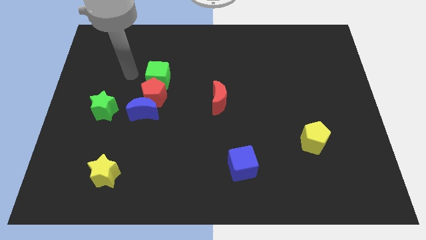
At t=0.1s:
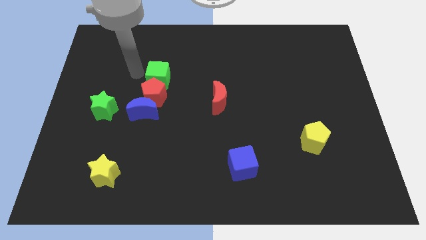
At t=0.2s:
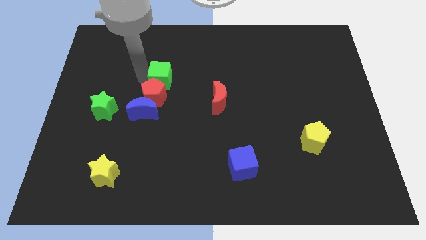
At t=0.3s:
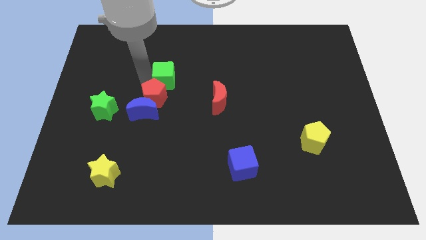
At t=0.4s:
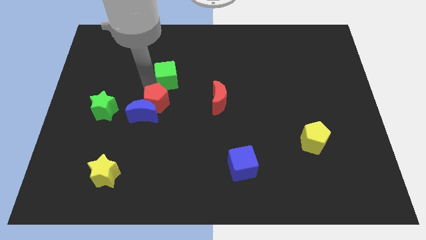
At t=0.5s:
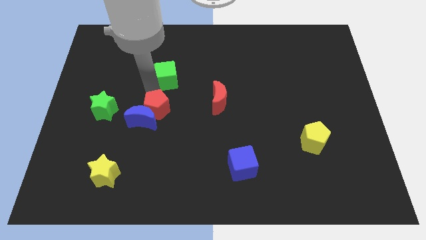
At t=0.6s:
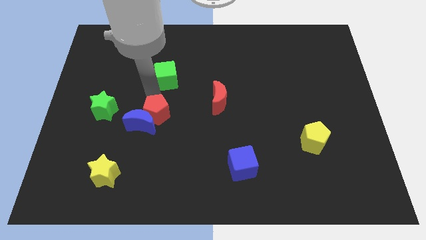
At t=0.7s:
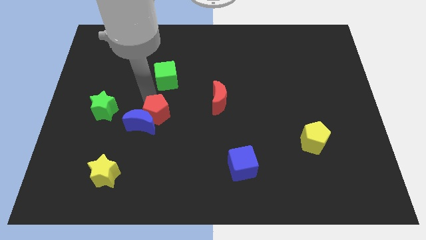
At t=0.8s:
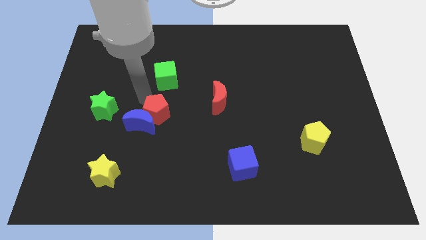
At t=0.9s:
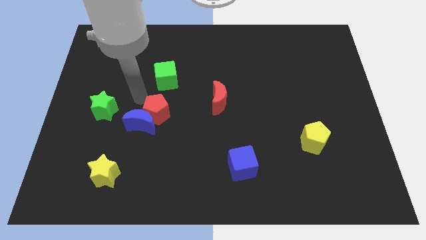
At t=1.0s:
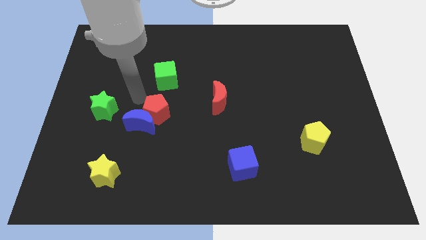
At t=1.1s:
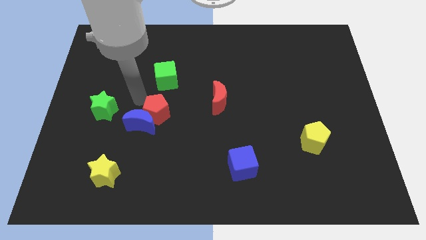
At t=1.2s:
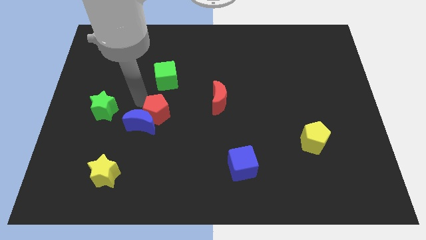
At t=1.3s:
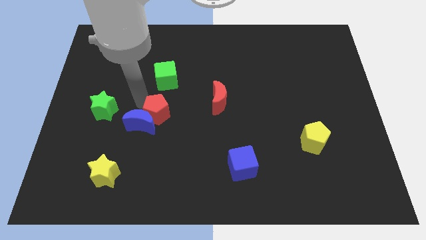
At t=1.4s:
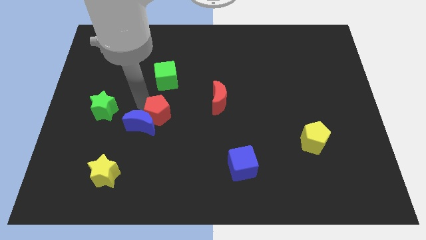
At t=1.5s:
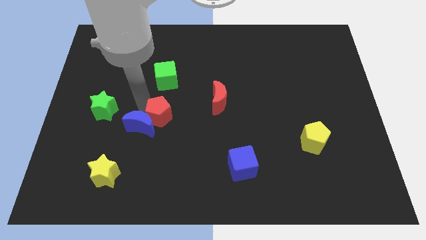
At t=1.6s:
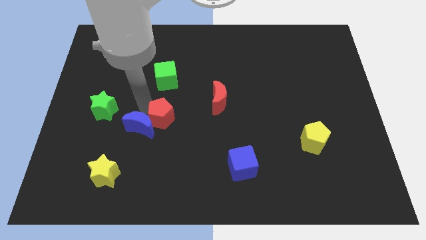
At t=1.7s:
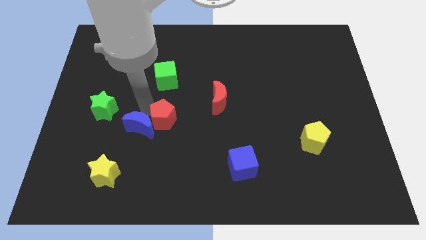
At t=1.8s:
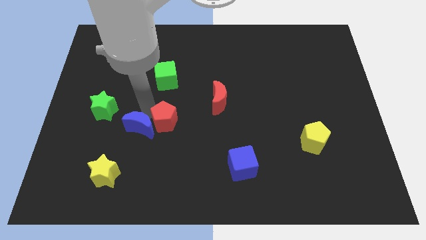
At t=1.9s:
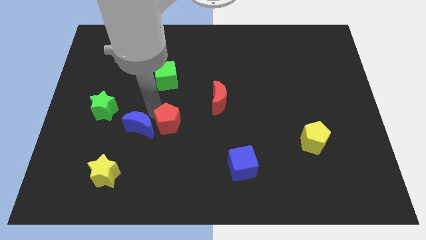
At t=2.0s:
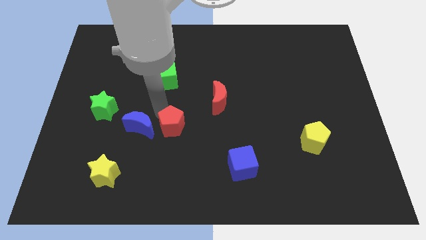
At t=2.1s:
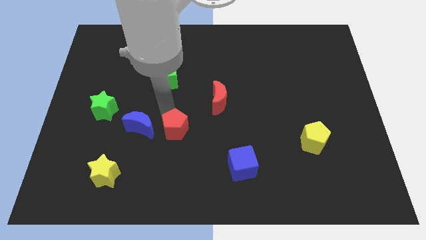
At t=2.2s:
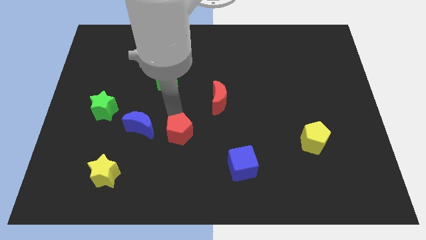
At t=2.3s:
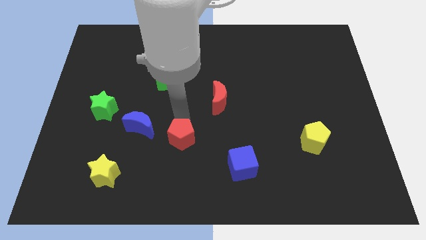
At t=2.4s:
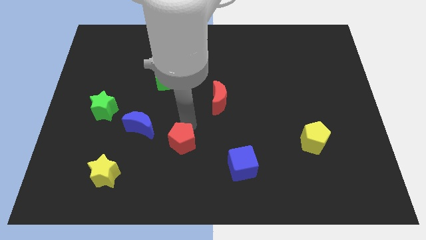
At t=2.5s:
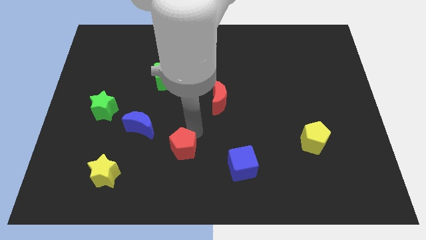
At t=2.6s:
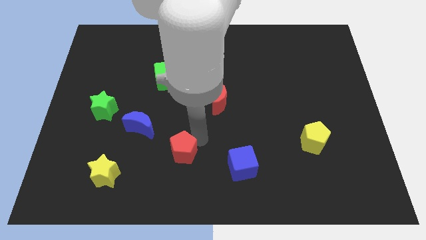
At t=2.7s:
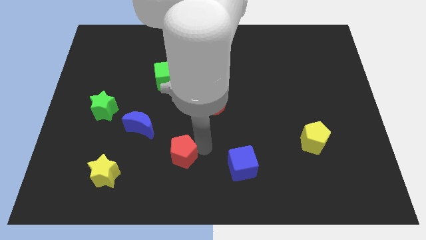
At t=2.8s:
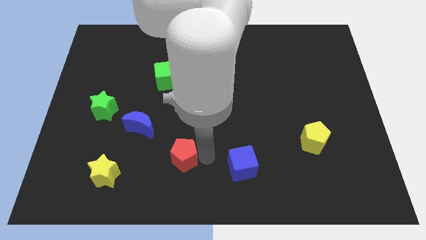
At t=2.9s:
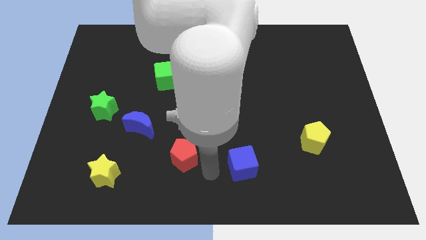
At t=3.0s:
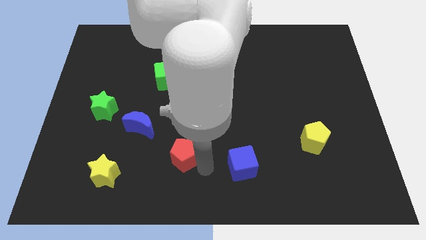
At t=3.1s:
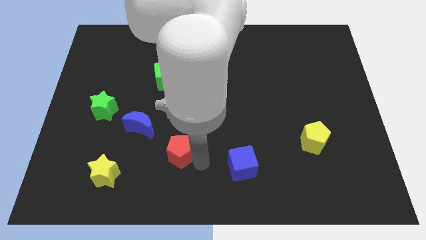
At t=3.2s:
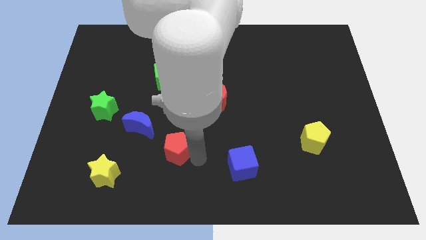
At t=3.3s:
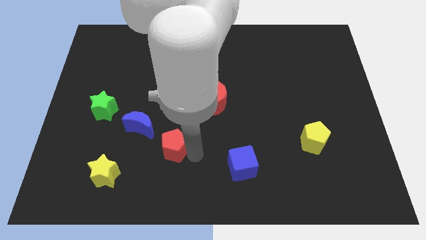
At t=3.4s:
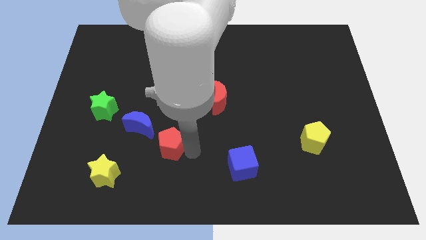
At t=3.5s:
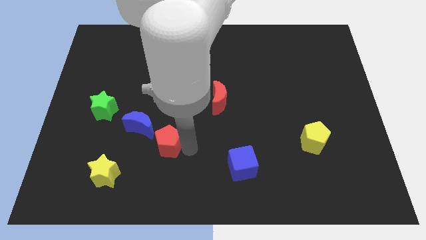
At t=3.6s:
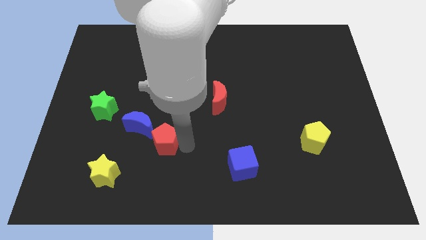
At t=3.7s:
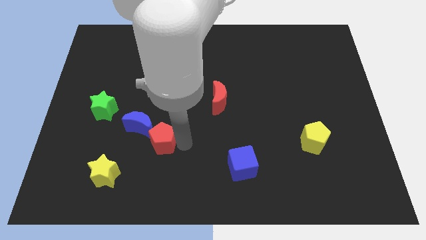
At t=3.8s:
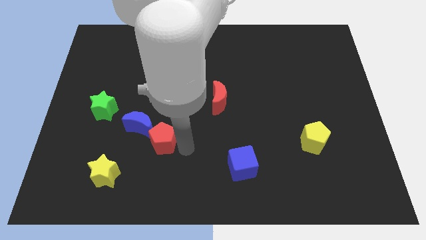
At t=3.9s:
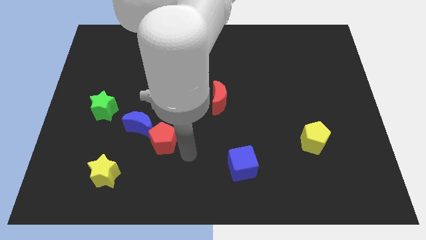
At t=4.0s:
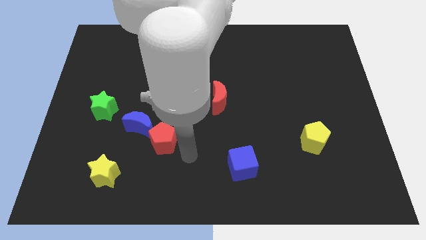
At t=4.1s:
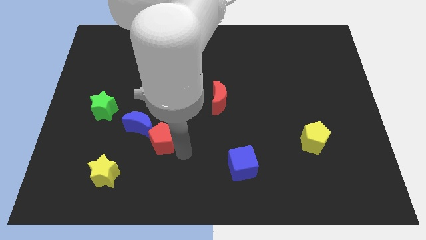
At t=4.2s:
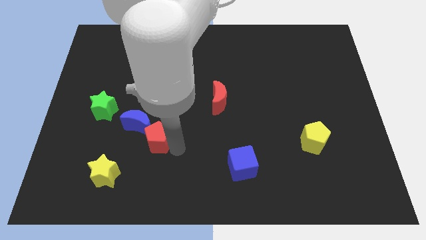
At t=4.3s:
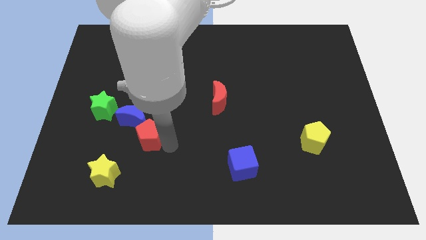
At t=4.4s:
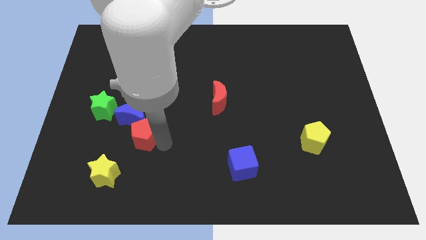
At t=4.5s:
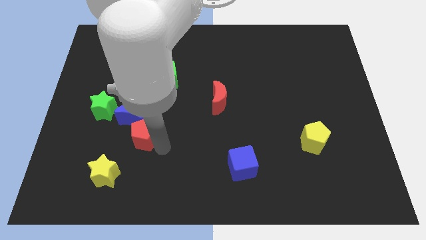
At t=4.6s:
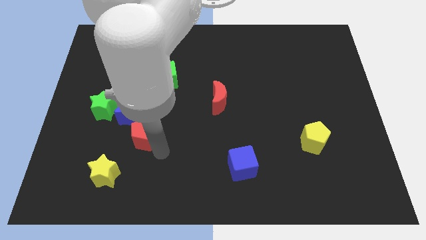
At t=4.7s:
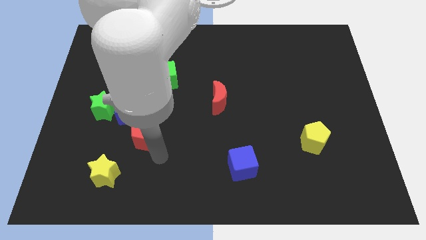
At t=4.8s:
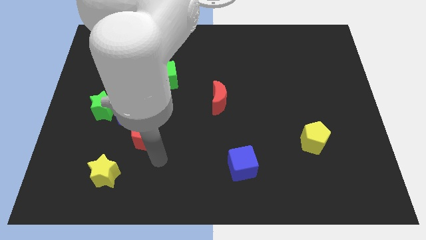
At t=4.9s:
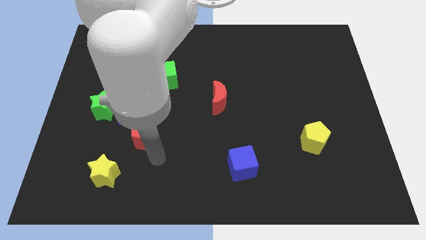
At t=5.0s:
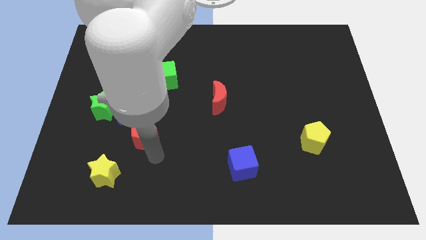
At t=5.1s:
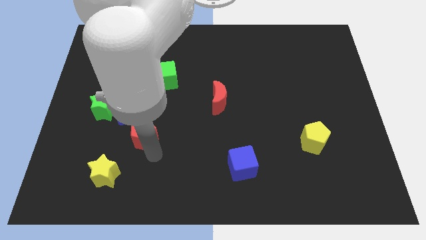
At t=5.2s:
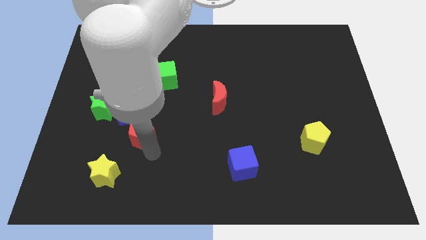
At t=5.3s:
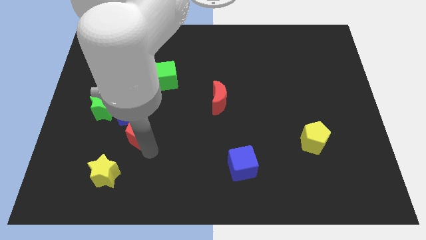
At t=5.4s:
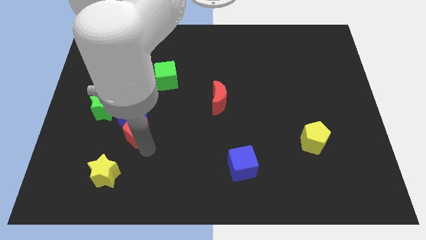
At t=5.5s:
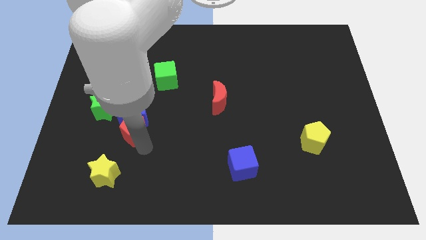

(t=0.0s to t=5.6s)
put the red pentagon above the yellow star

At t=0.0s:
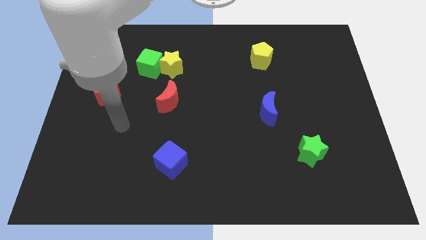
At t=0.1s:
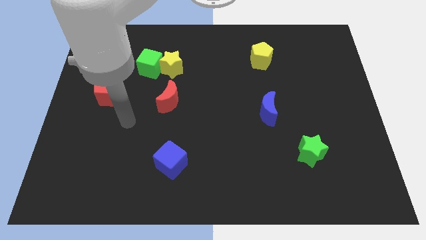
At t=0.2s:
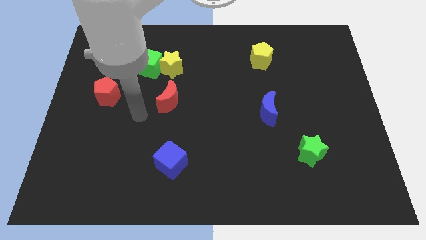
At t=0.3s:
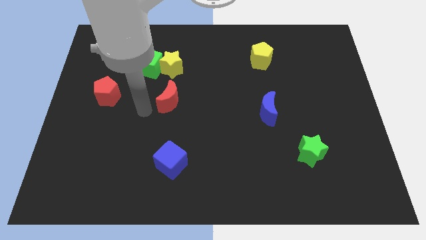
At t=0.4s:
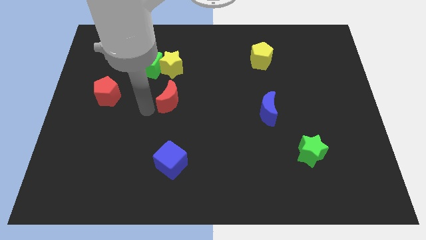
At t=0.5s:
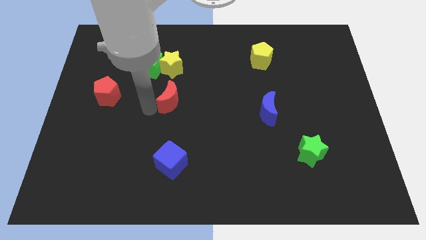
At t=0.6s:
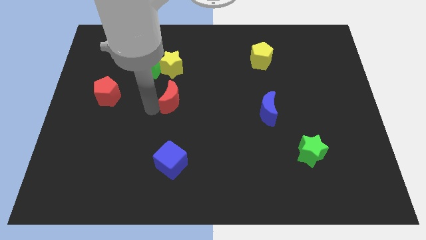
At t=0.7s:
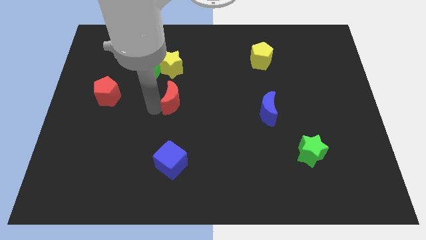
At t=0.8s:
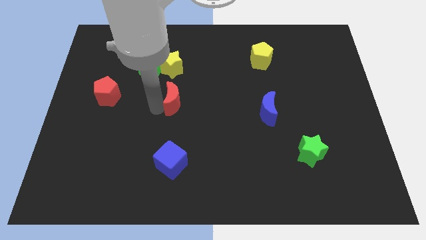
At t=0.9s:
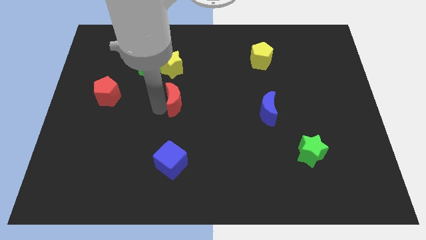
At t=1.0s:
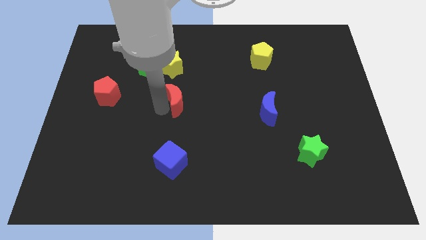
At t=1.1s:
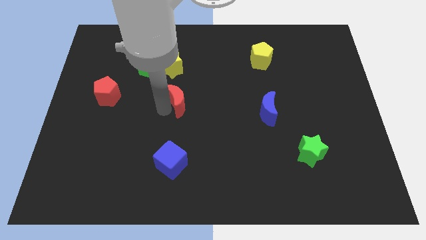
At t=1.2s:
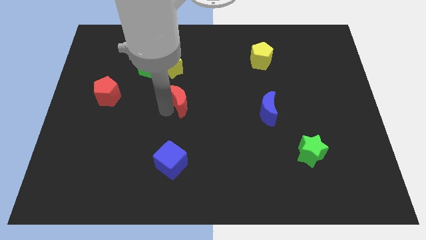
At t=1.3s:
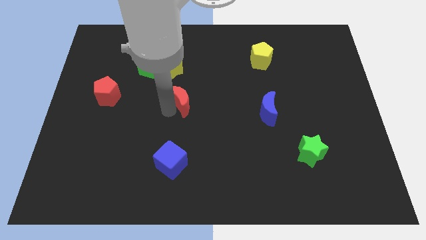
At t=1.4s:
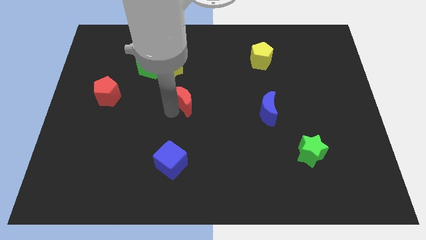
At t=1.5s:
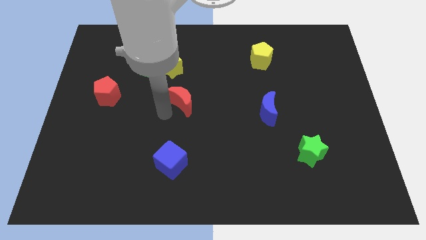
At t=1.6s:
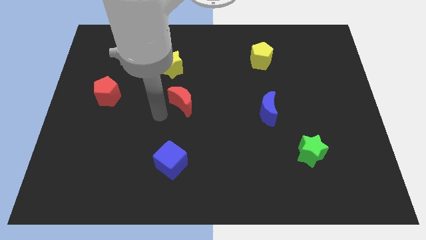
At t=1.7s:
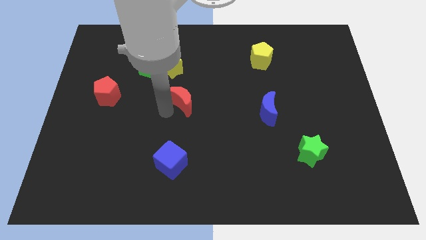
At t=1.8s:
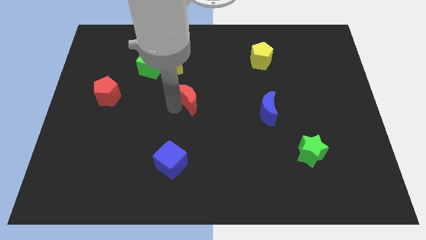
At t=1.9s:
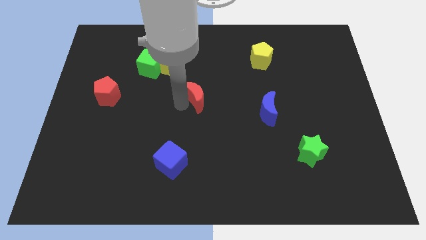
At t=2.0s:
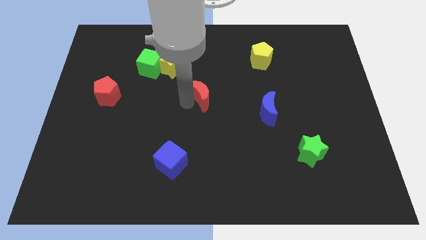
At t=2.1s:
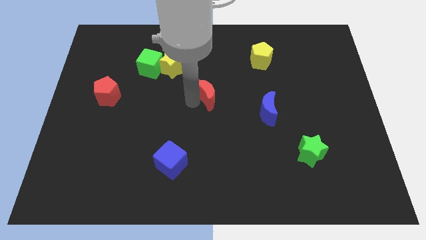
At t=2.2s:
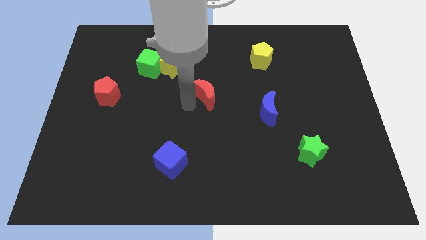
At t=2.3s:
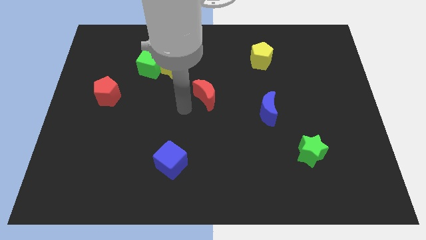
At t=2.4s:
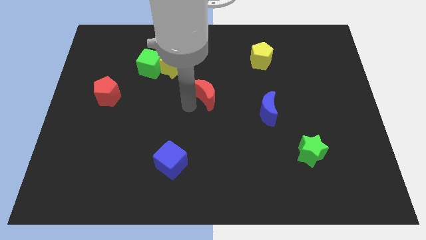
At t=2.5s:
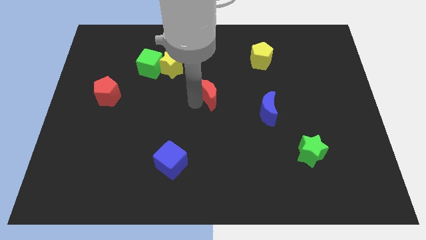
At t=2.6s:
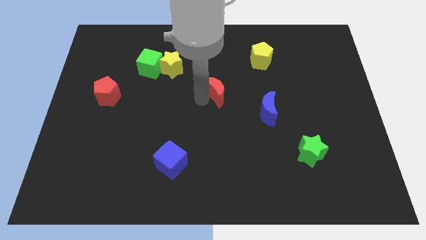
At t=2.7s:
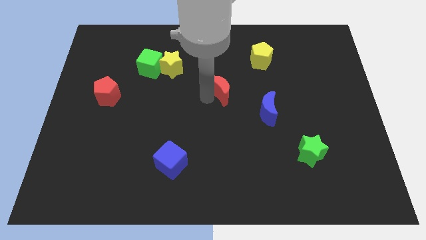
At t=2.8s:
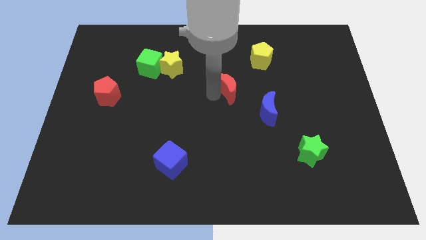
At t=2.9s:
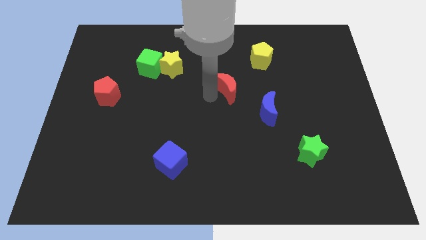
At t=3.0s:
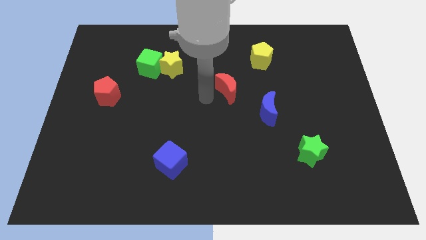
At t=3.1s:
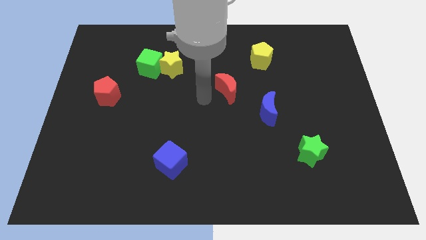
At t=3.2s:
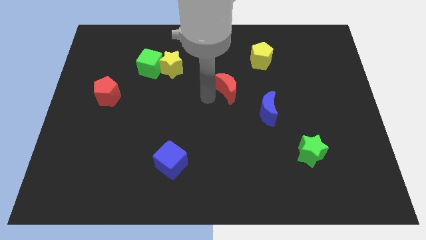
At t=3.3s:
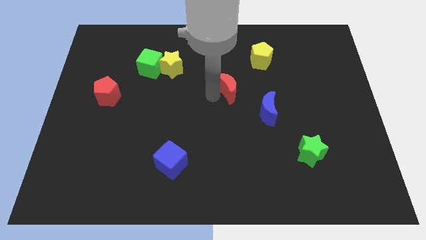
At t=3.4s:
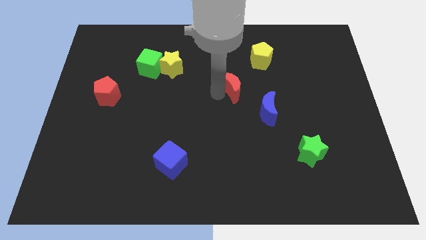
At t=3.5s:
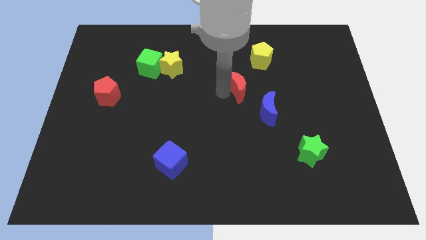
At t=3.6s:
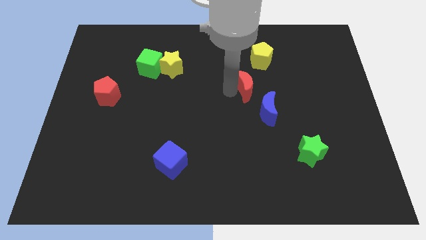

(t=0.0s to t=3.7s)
move the red moon above the blue moon
